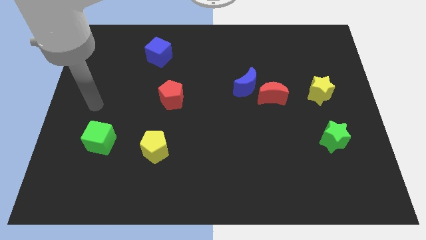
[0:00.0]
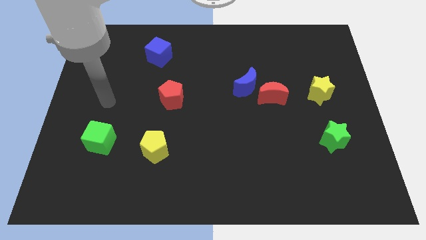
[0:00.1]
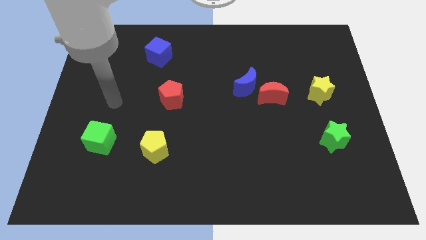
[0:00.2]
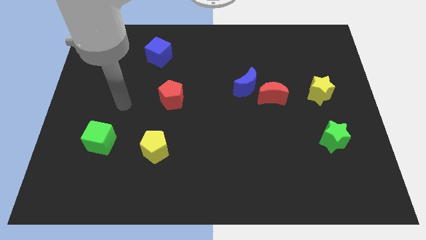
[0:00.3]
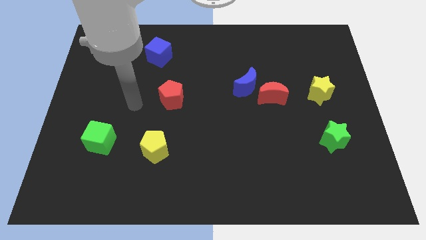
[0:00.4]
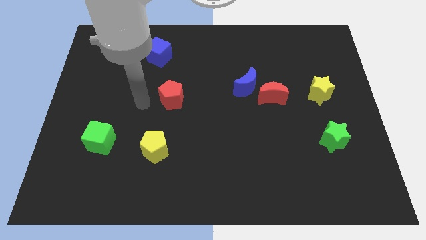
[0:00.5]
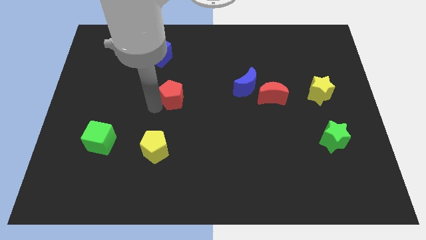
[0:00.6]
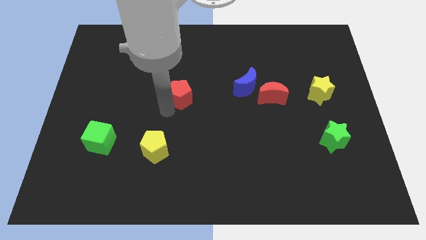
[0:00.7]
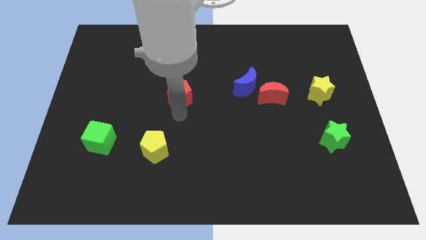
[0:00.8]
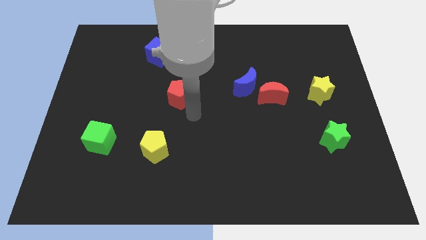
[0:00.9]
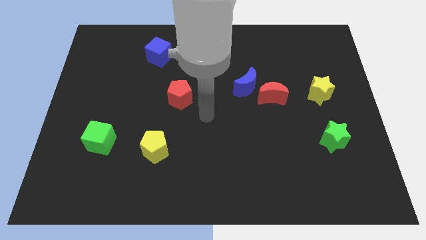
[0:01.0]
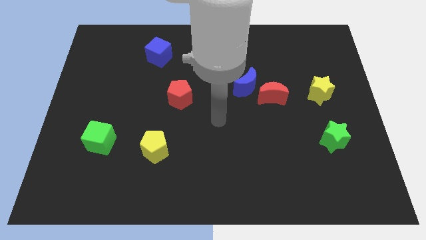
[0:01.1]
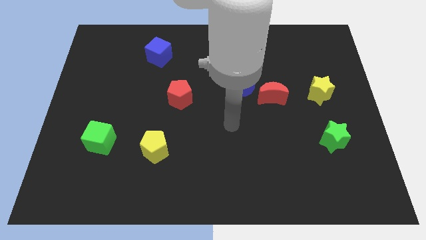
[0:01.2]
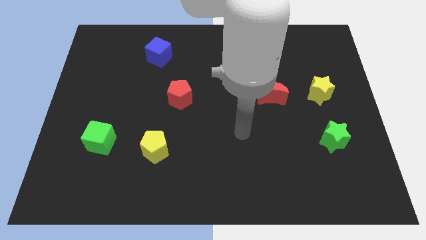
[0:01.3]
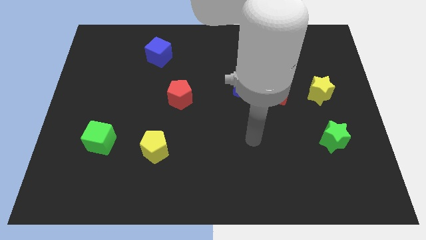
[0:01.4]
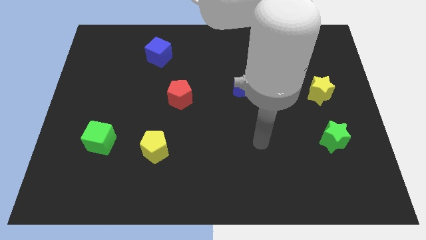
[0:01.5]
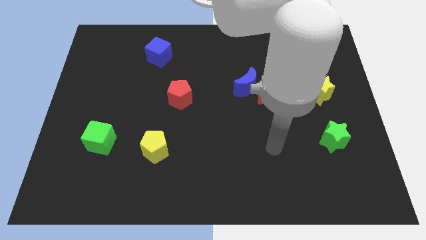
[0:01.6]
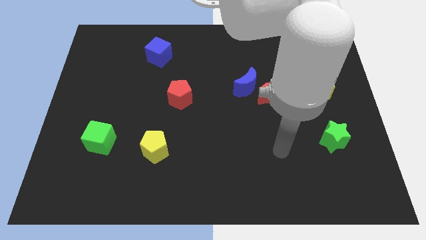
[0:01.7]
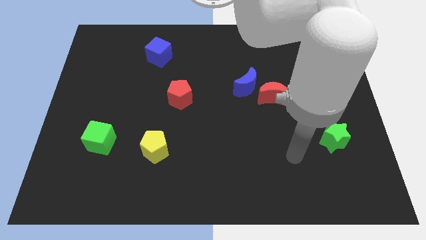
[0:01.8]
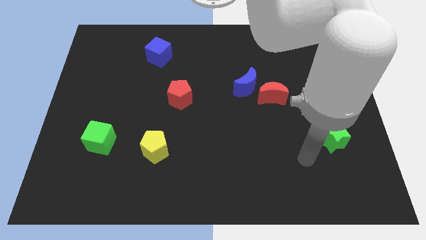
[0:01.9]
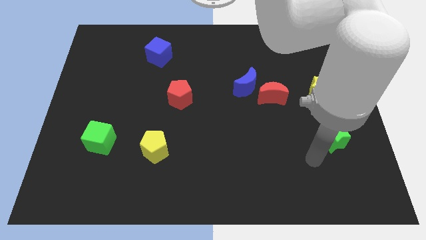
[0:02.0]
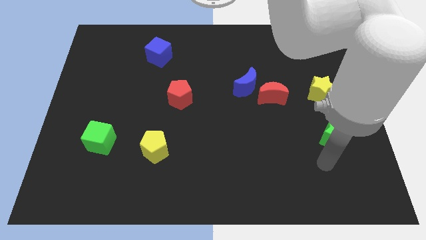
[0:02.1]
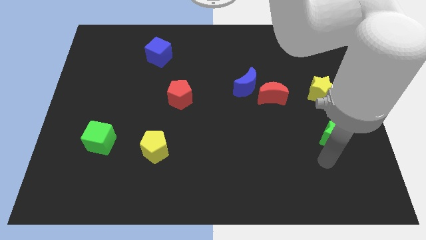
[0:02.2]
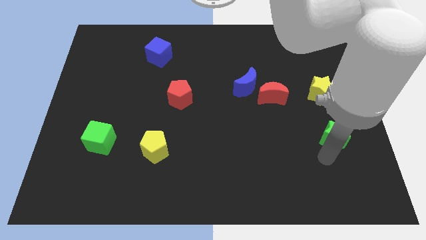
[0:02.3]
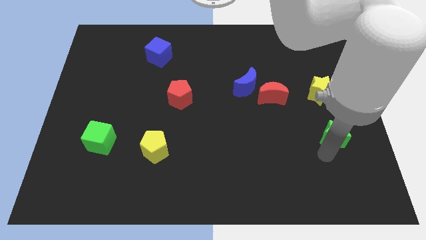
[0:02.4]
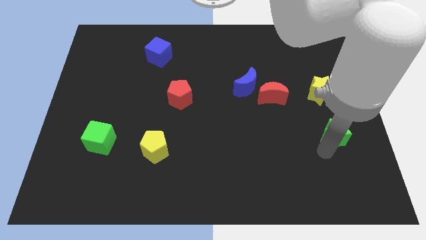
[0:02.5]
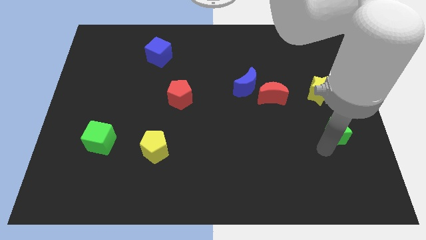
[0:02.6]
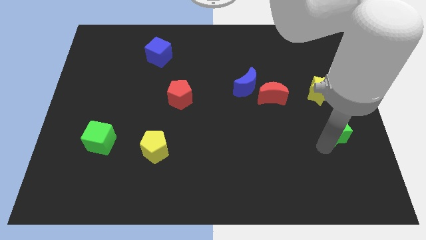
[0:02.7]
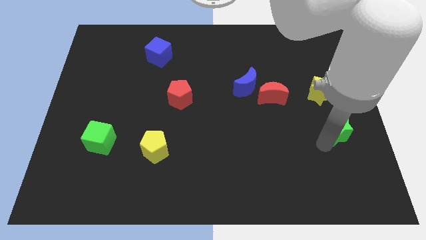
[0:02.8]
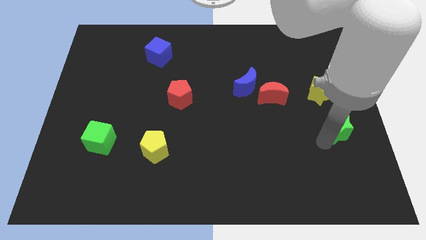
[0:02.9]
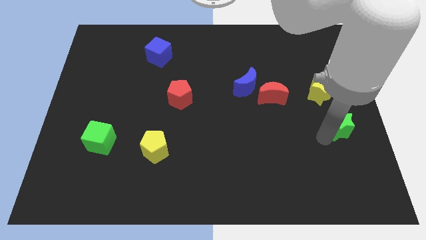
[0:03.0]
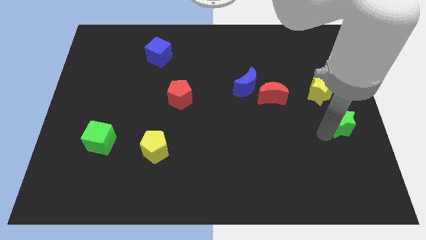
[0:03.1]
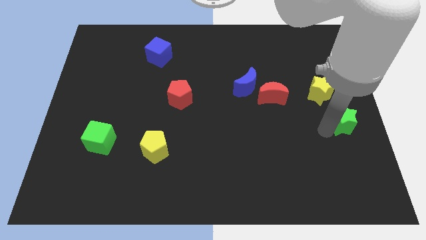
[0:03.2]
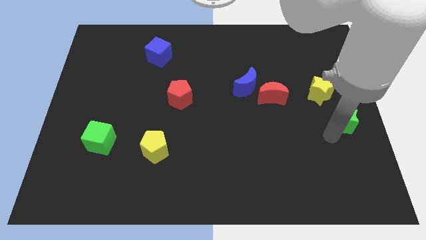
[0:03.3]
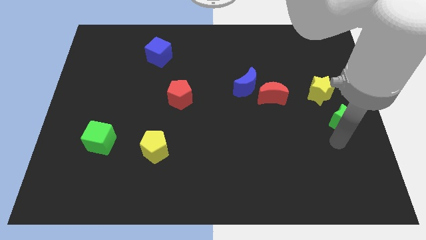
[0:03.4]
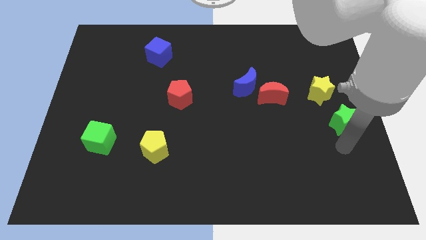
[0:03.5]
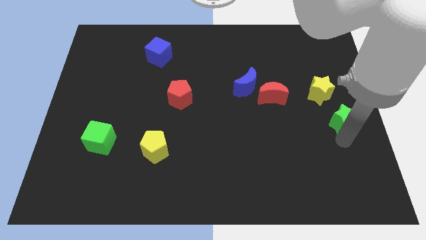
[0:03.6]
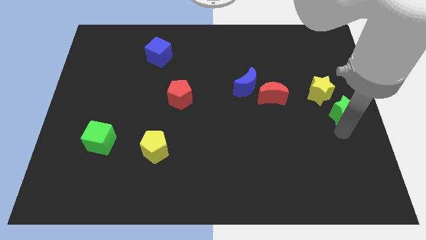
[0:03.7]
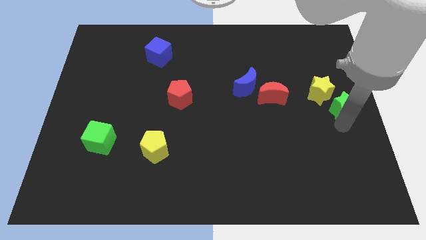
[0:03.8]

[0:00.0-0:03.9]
move the green star slightly upwards

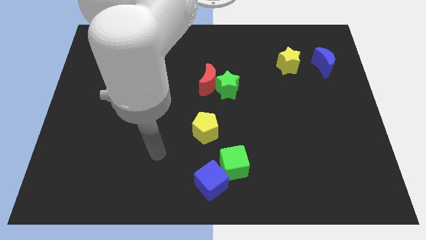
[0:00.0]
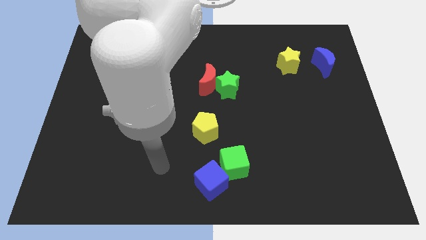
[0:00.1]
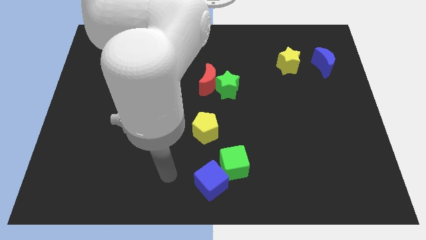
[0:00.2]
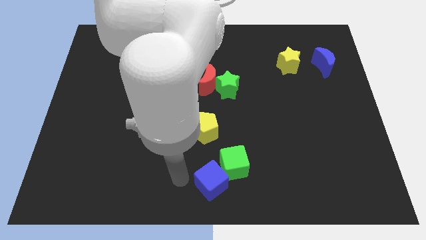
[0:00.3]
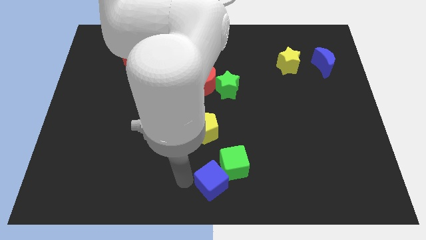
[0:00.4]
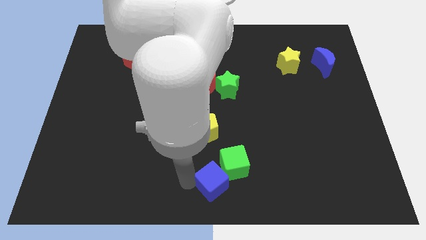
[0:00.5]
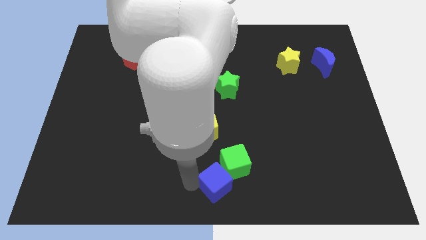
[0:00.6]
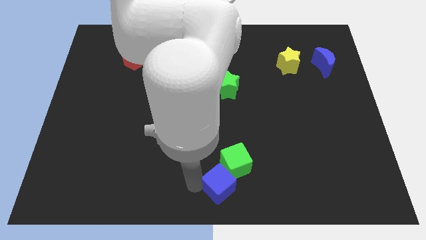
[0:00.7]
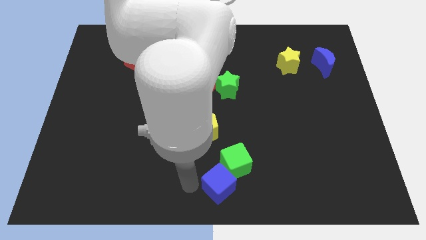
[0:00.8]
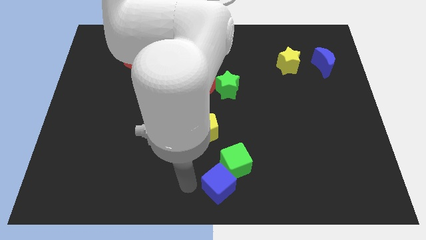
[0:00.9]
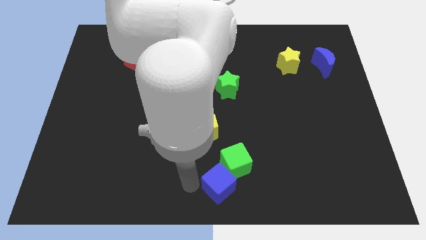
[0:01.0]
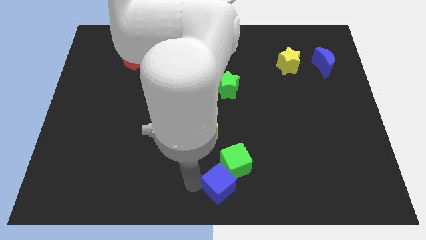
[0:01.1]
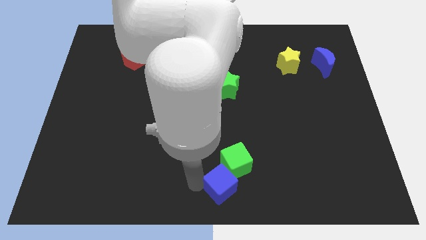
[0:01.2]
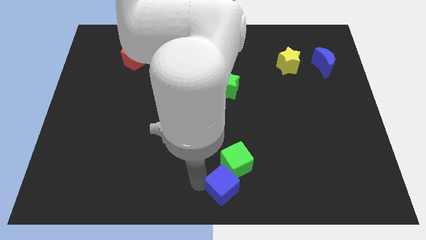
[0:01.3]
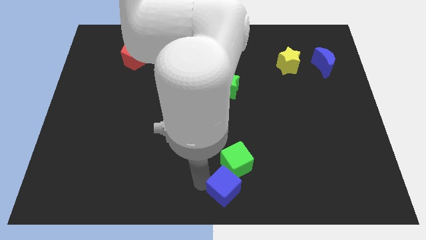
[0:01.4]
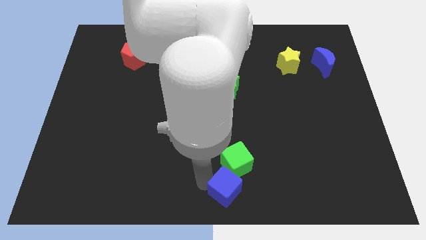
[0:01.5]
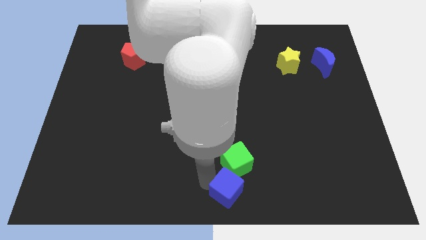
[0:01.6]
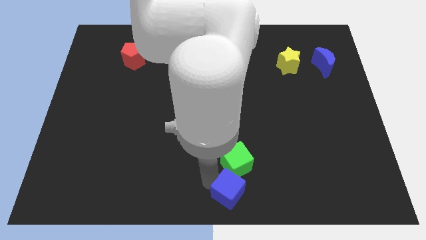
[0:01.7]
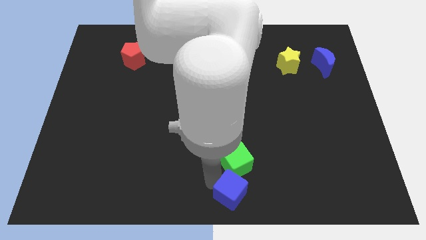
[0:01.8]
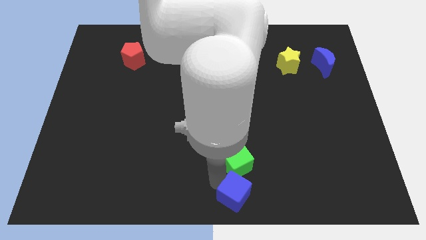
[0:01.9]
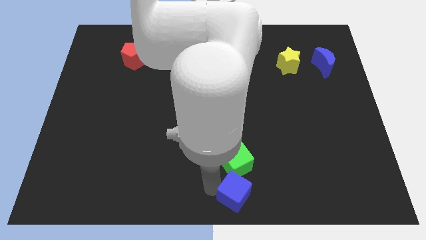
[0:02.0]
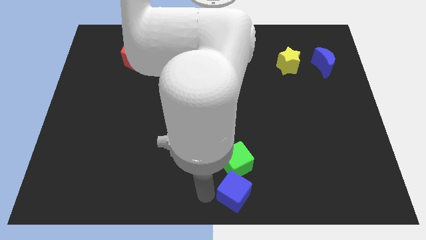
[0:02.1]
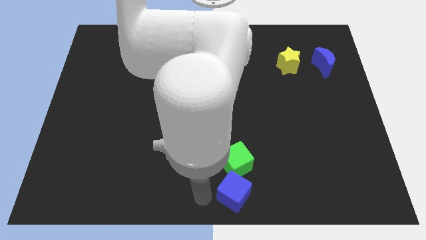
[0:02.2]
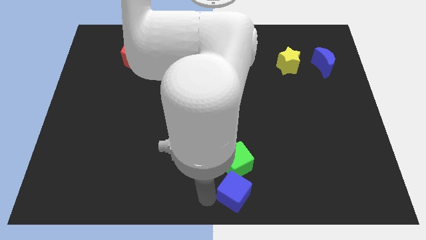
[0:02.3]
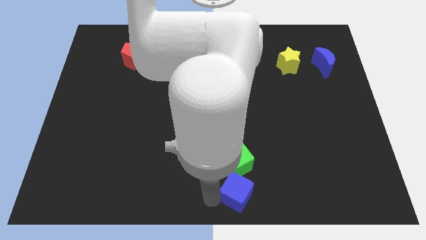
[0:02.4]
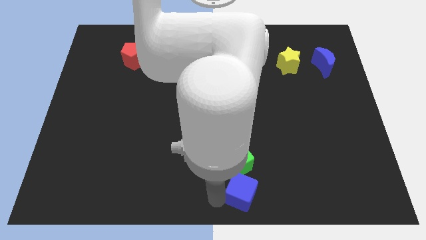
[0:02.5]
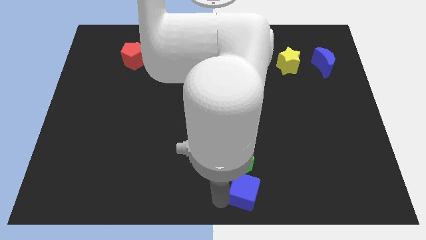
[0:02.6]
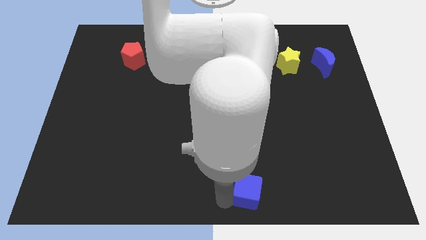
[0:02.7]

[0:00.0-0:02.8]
slightly move the blue cube right

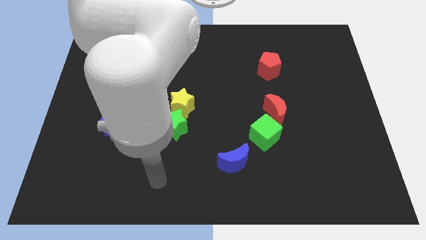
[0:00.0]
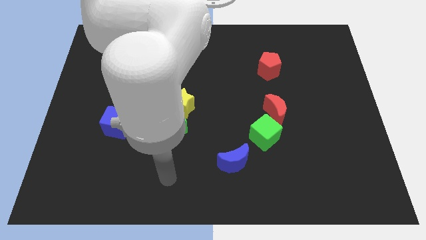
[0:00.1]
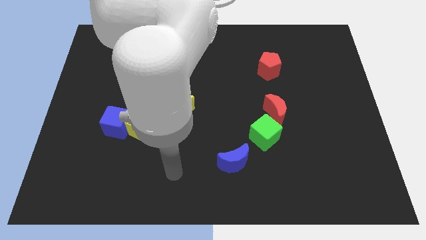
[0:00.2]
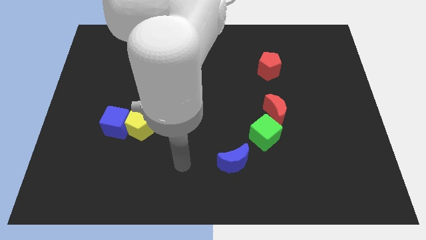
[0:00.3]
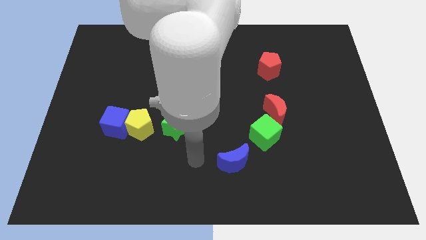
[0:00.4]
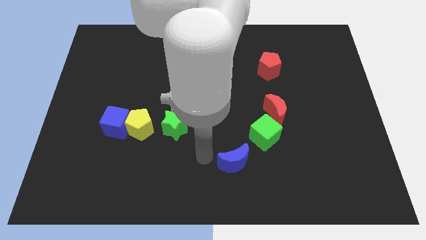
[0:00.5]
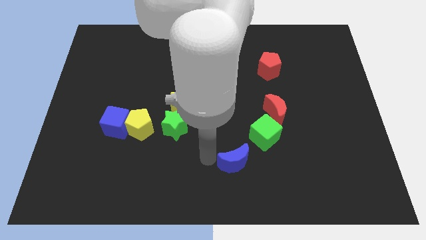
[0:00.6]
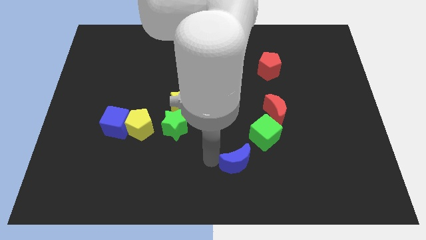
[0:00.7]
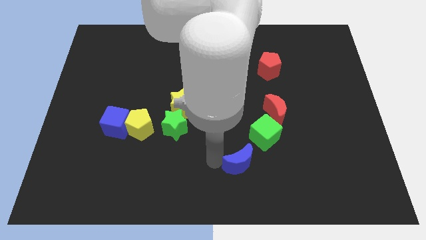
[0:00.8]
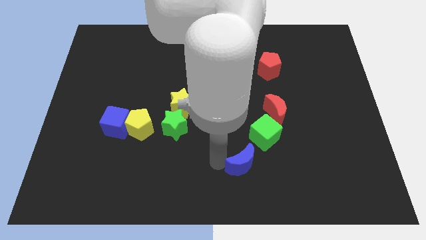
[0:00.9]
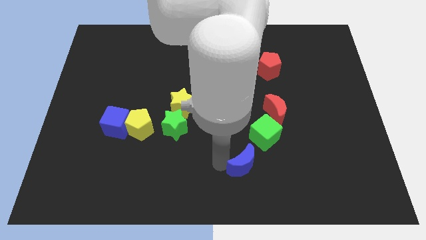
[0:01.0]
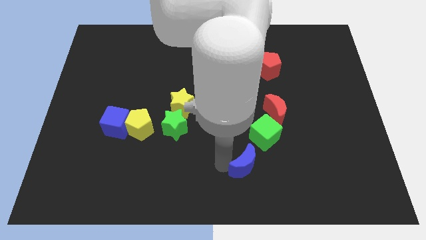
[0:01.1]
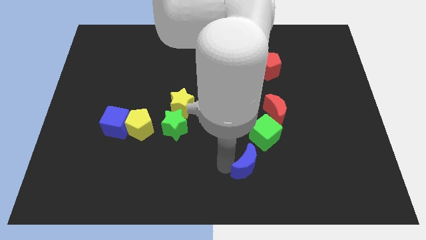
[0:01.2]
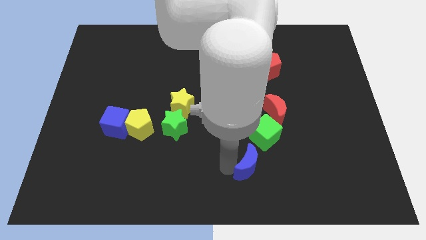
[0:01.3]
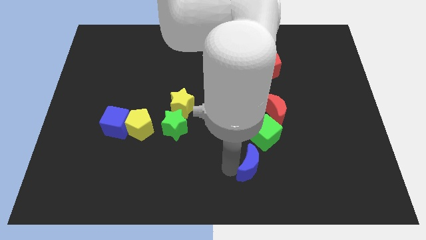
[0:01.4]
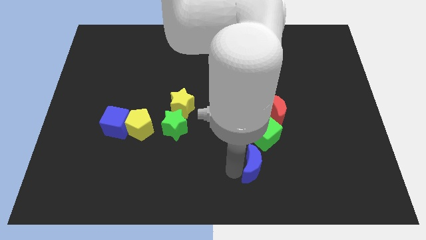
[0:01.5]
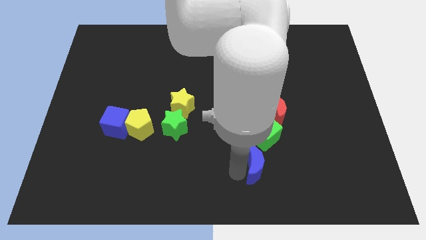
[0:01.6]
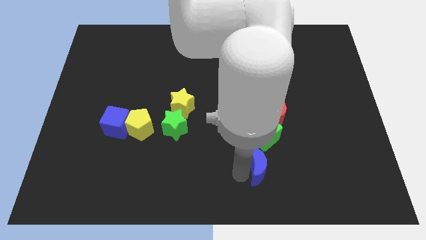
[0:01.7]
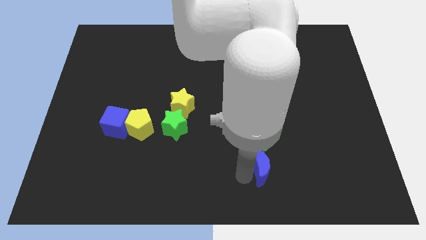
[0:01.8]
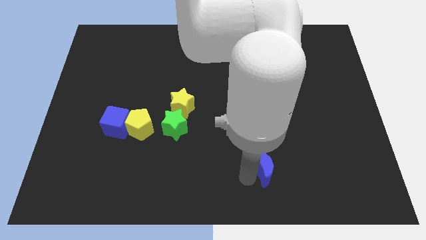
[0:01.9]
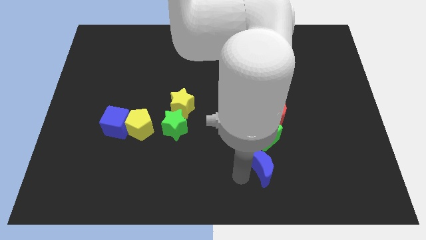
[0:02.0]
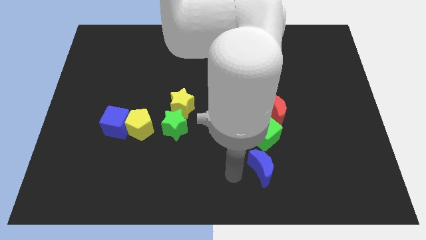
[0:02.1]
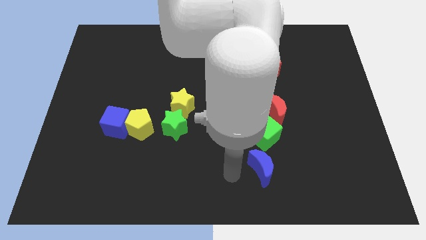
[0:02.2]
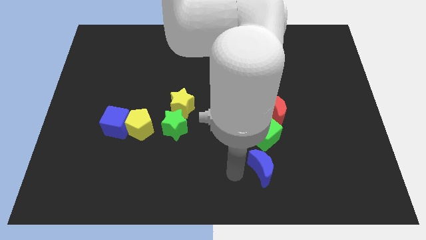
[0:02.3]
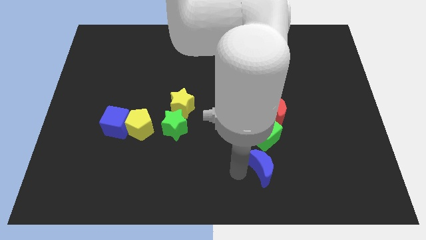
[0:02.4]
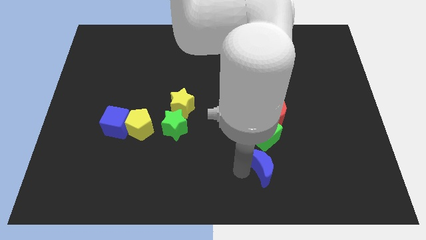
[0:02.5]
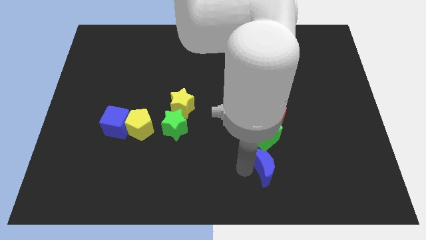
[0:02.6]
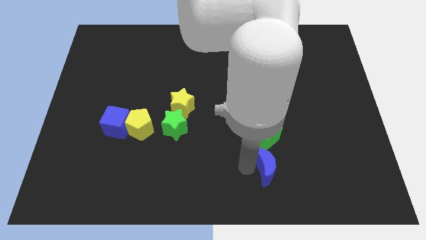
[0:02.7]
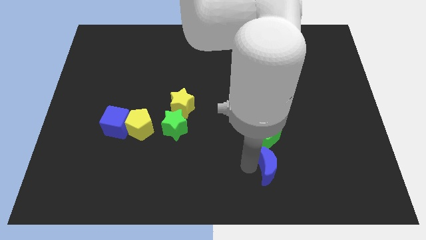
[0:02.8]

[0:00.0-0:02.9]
slide the blue moon a bit right
